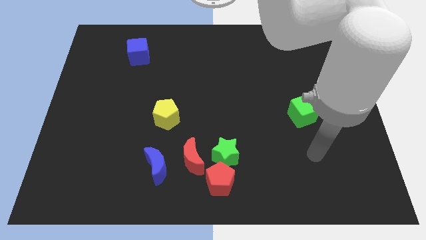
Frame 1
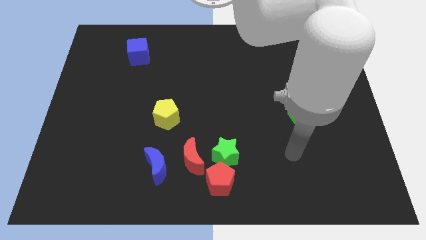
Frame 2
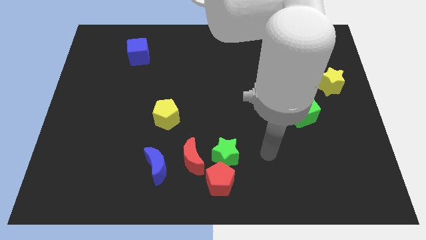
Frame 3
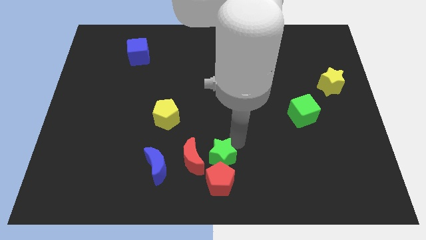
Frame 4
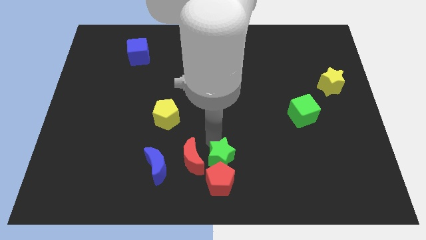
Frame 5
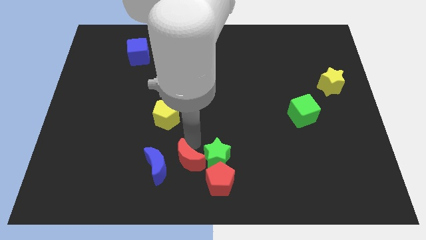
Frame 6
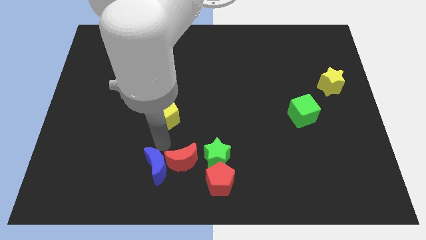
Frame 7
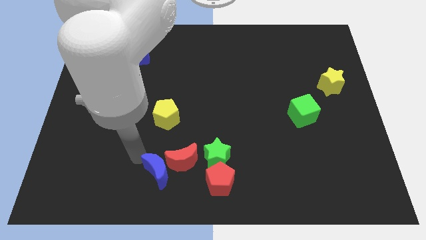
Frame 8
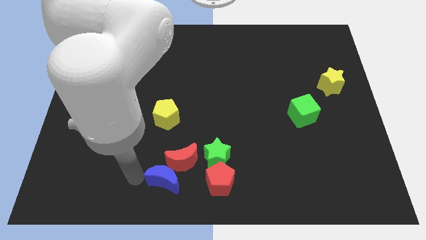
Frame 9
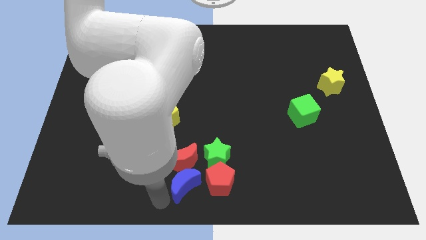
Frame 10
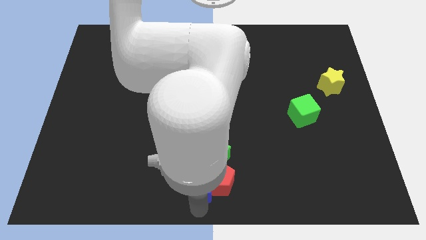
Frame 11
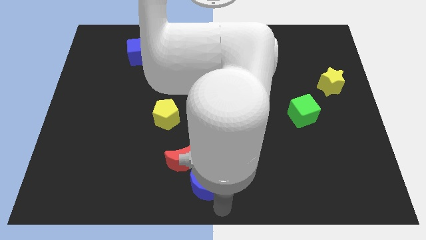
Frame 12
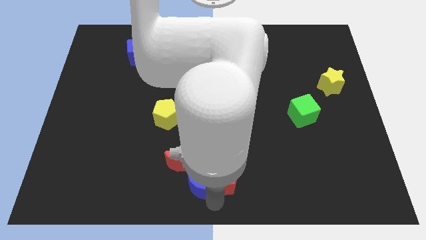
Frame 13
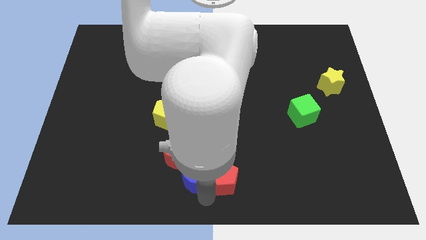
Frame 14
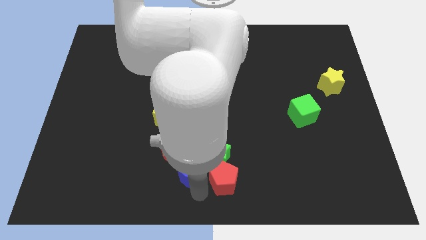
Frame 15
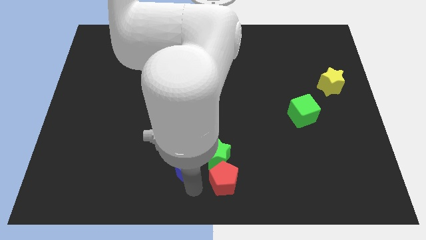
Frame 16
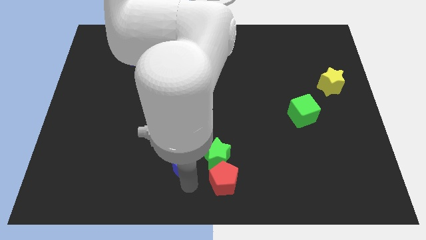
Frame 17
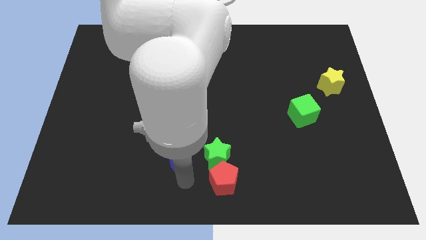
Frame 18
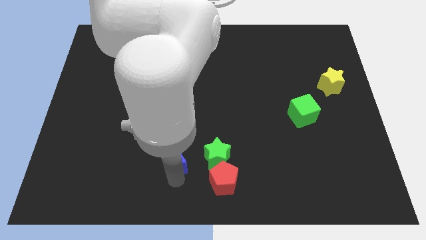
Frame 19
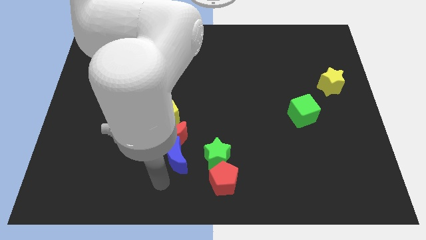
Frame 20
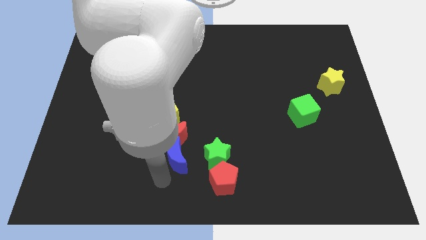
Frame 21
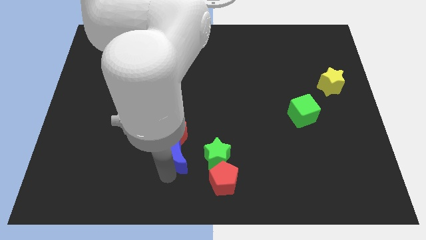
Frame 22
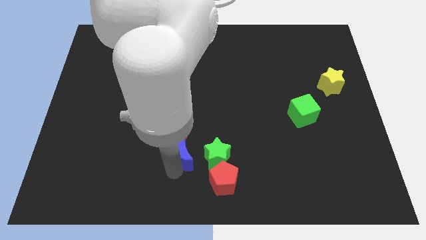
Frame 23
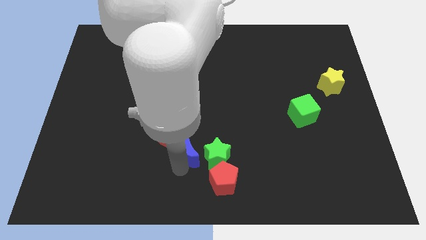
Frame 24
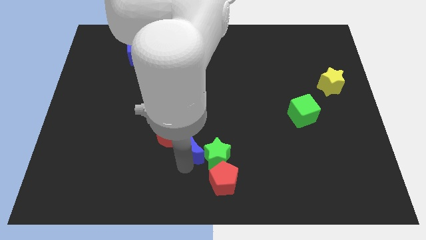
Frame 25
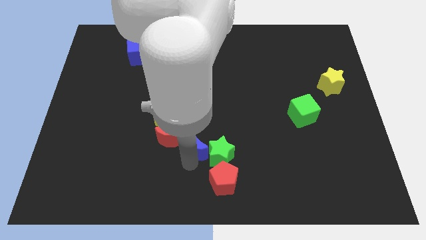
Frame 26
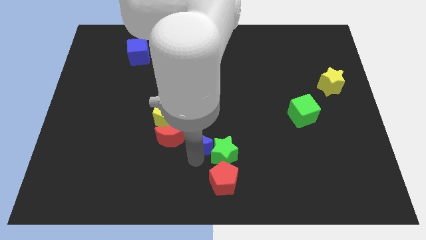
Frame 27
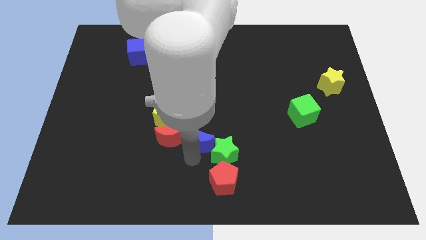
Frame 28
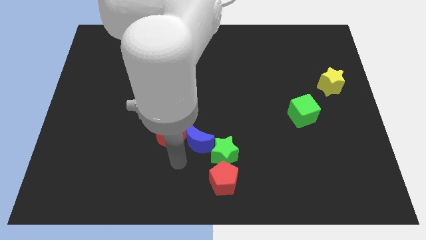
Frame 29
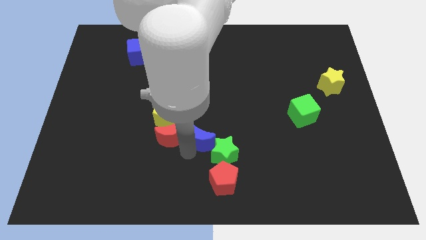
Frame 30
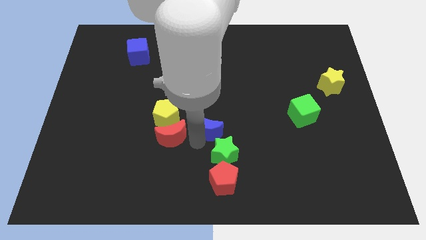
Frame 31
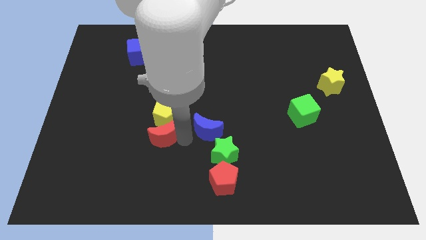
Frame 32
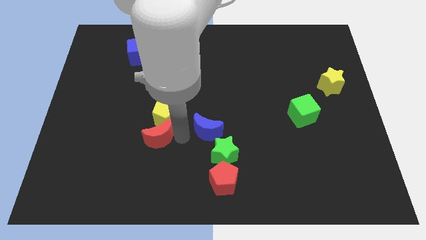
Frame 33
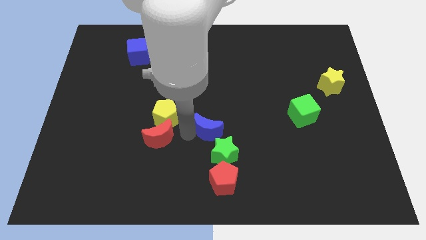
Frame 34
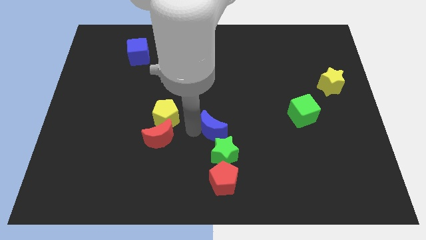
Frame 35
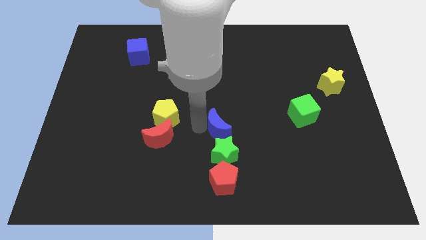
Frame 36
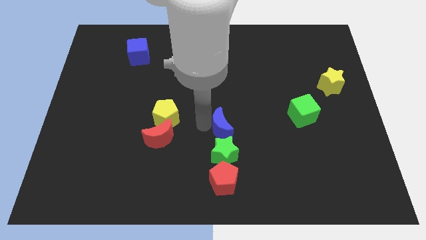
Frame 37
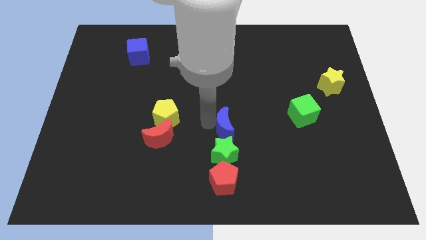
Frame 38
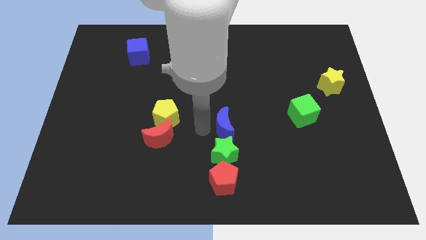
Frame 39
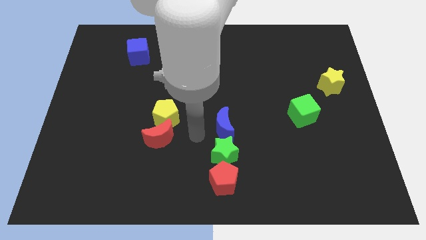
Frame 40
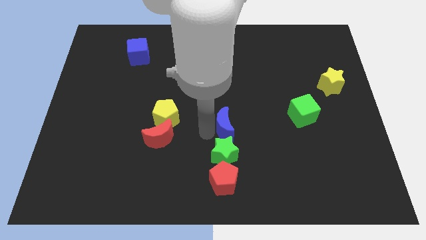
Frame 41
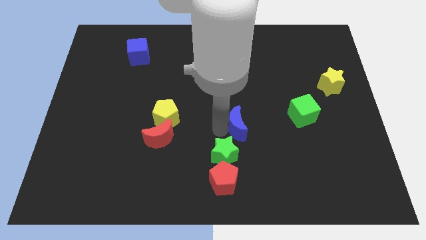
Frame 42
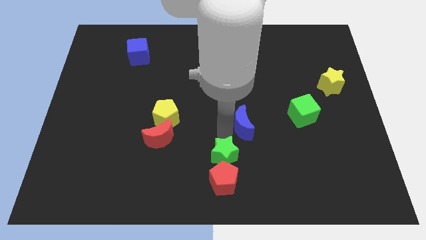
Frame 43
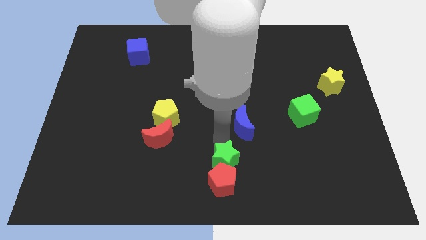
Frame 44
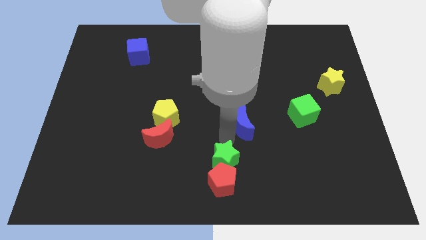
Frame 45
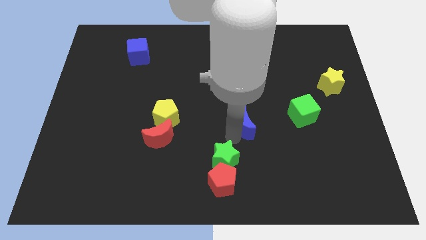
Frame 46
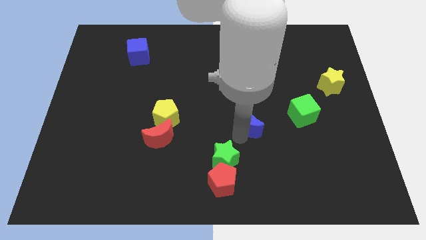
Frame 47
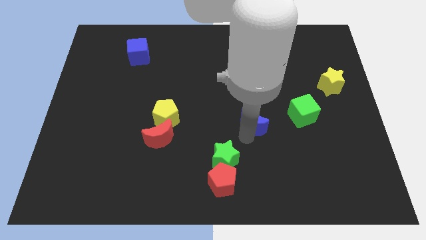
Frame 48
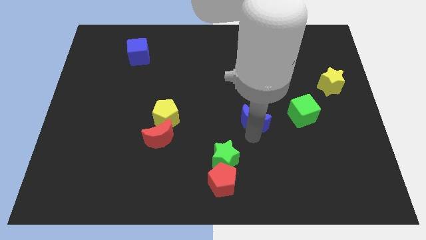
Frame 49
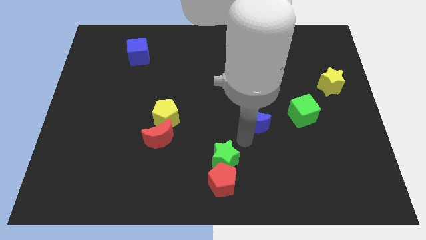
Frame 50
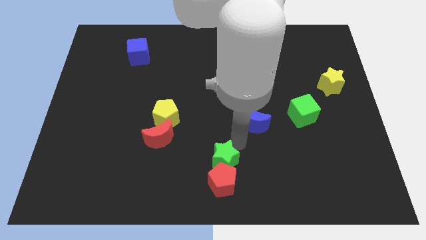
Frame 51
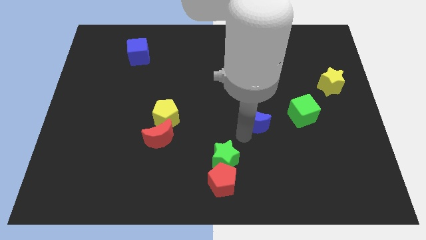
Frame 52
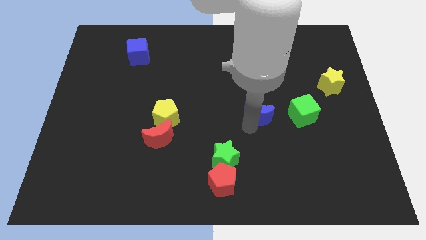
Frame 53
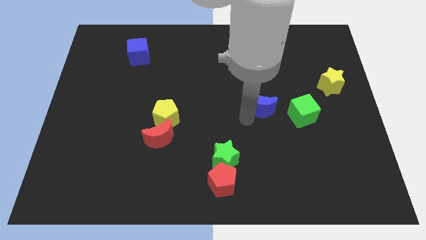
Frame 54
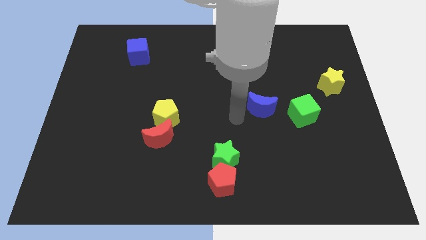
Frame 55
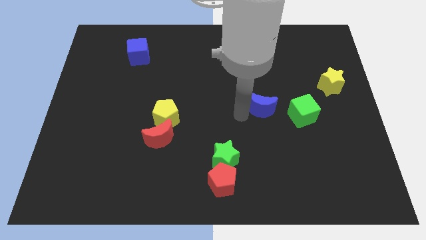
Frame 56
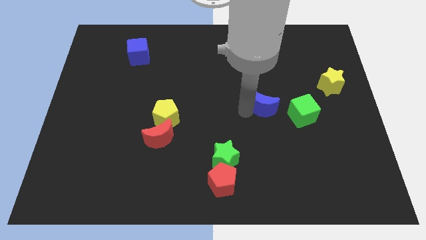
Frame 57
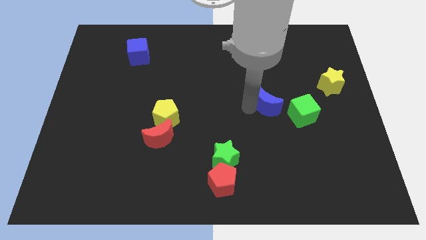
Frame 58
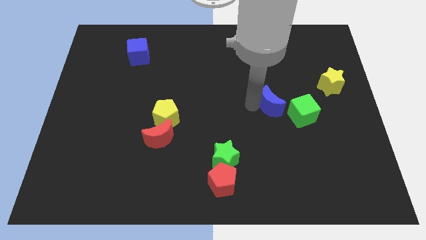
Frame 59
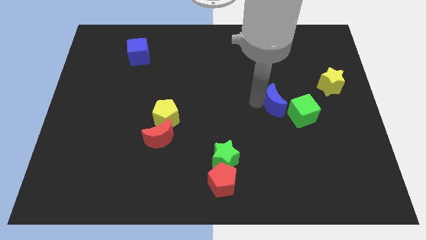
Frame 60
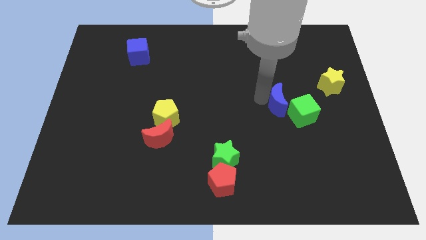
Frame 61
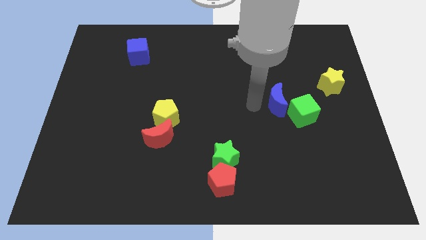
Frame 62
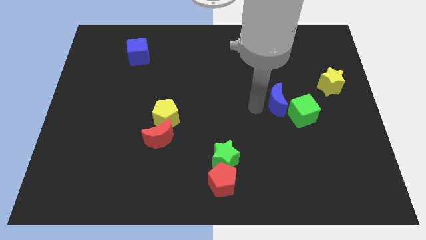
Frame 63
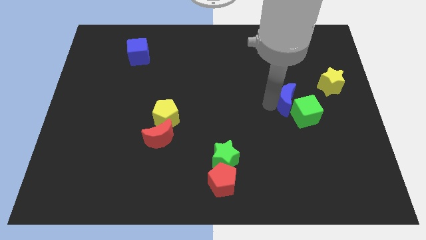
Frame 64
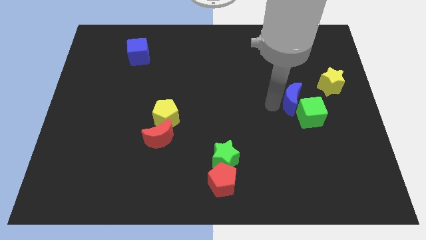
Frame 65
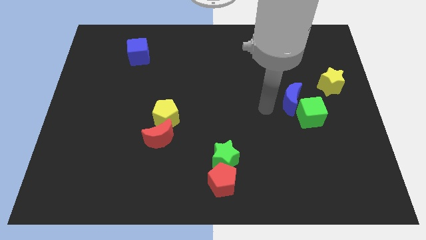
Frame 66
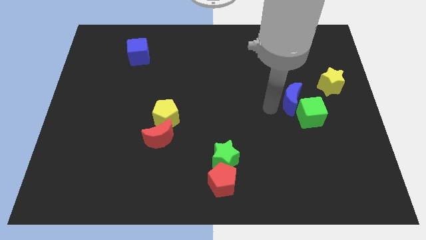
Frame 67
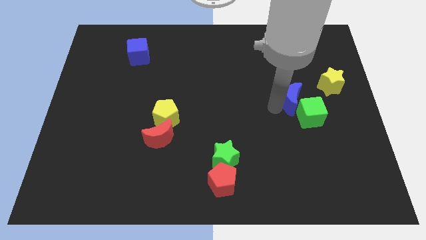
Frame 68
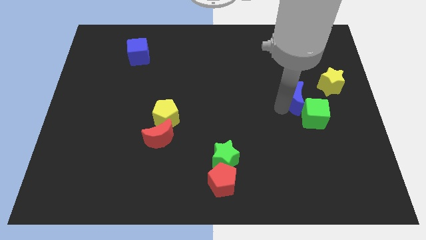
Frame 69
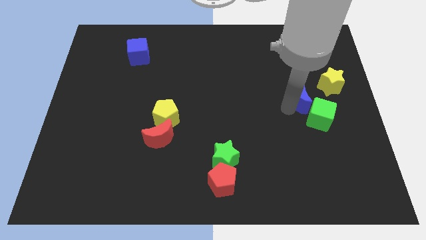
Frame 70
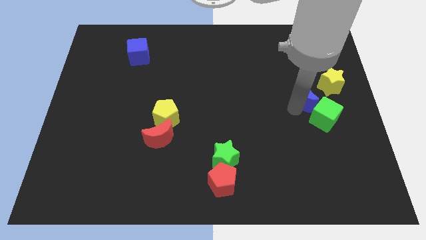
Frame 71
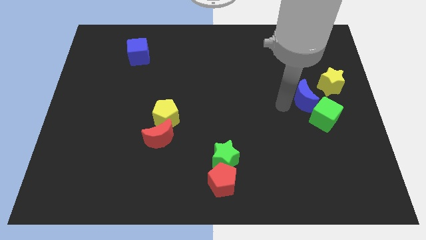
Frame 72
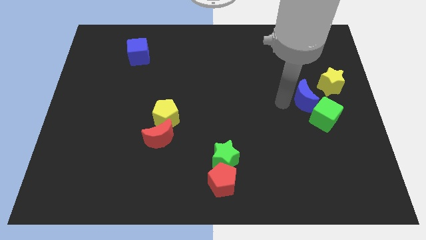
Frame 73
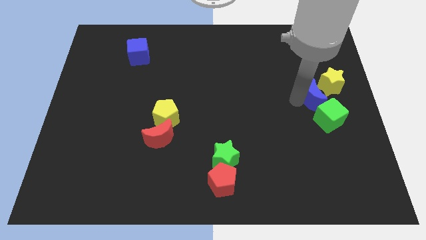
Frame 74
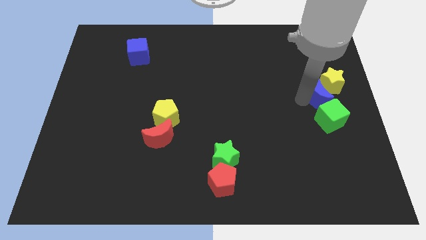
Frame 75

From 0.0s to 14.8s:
move the blue moon to the center right
